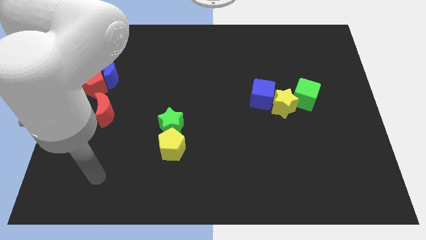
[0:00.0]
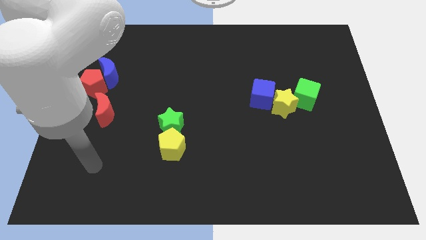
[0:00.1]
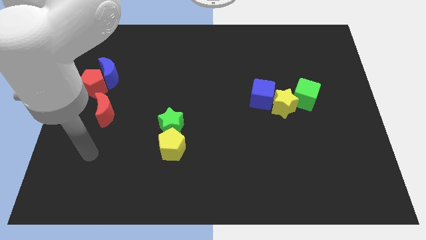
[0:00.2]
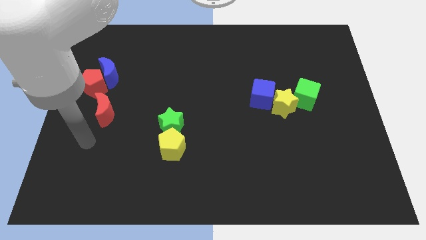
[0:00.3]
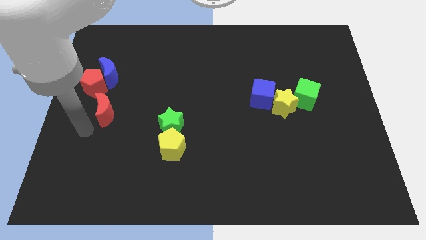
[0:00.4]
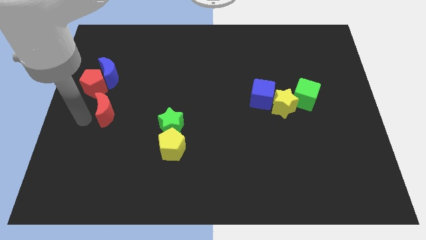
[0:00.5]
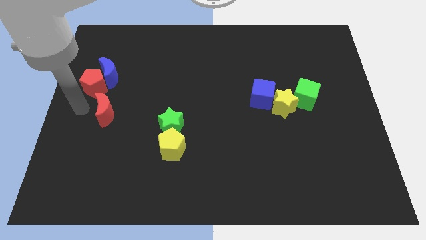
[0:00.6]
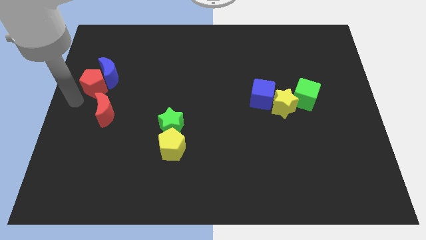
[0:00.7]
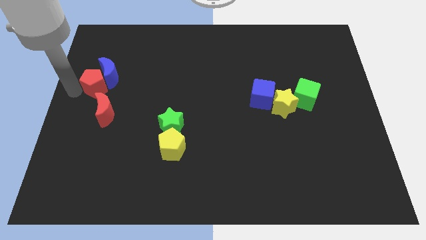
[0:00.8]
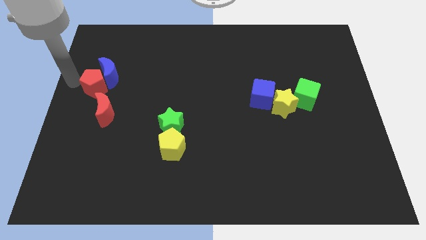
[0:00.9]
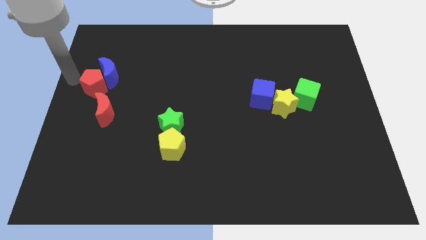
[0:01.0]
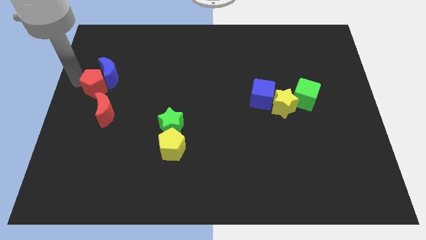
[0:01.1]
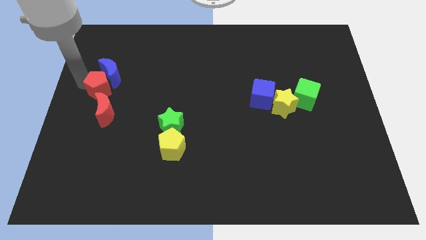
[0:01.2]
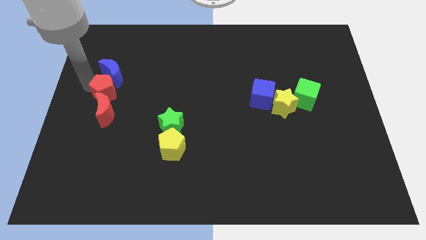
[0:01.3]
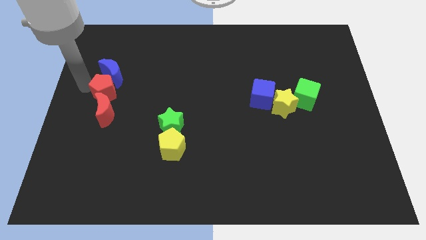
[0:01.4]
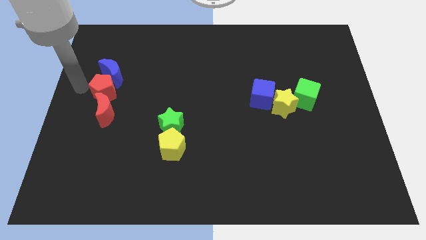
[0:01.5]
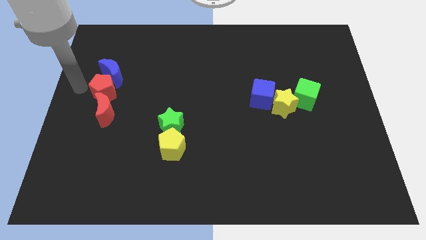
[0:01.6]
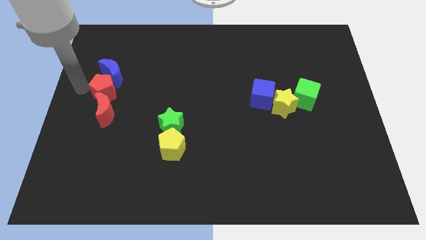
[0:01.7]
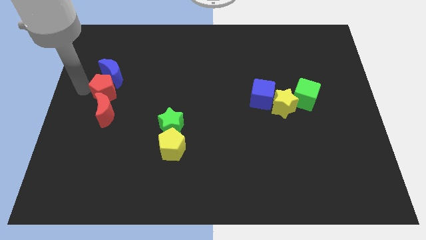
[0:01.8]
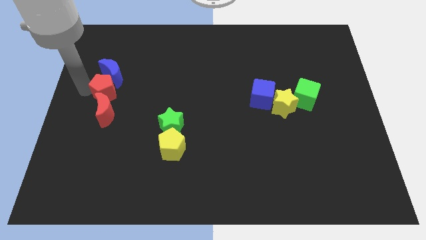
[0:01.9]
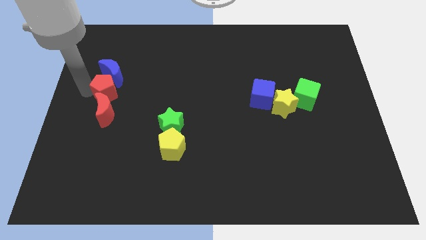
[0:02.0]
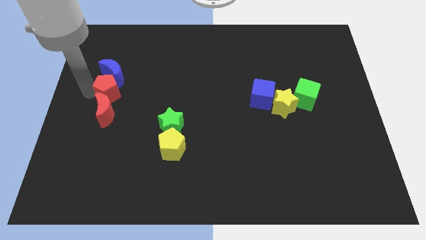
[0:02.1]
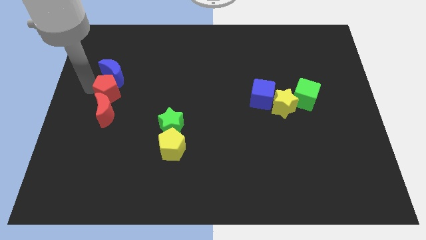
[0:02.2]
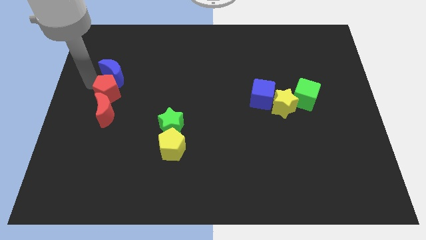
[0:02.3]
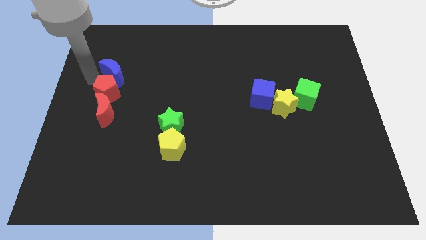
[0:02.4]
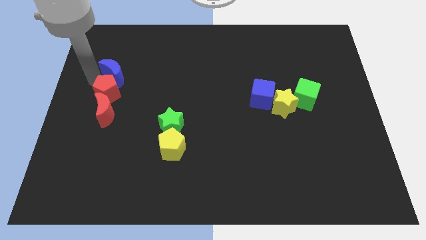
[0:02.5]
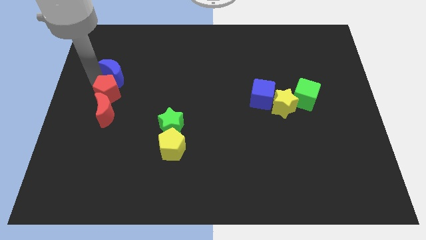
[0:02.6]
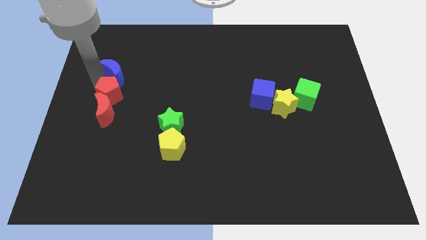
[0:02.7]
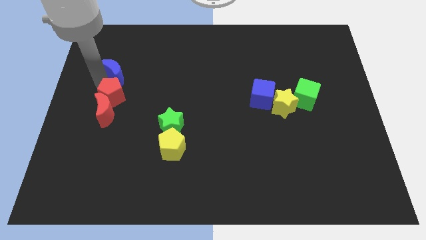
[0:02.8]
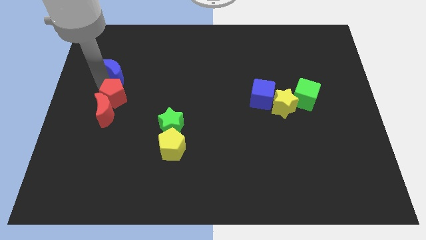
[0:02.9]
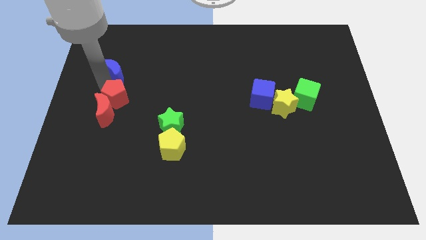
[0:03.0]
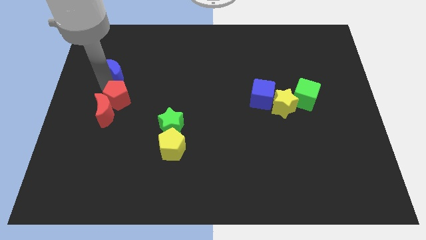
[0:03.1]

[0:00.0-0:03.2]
push the red pentagon a bit downwards and to the right

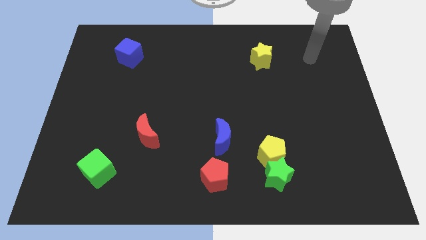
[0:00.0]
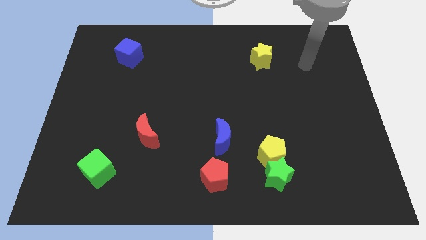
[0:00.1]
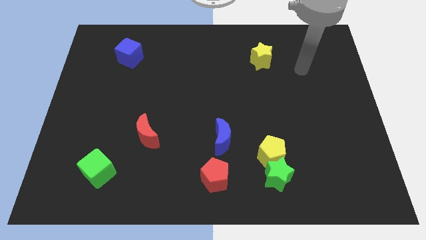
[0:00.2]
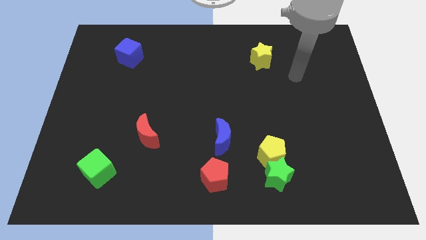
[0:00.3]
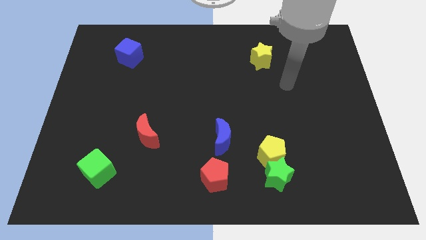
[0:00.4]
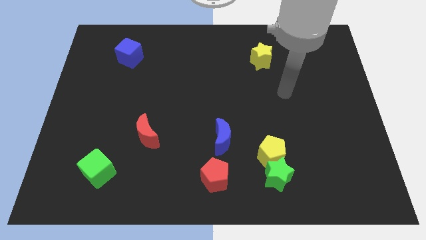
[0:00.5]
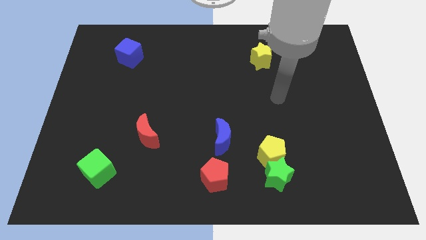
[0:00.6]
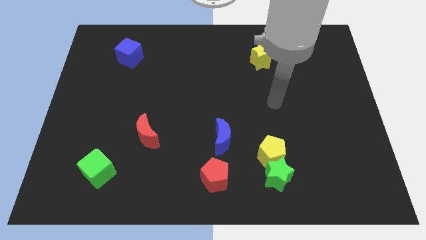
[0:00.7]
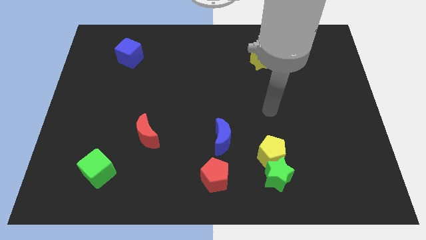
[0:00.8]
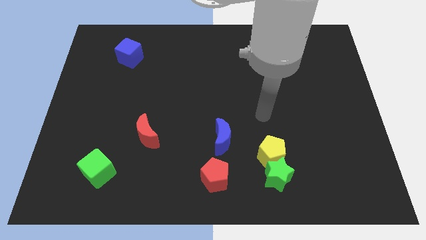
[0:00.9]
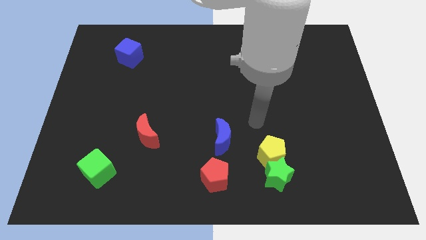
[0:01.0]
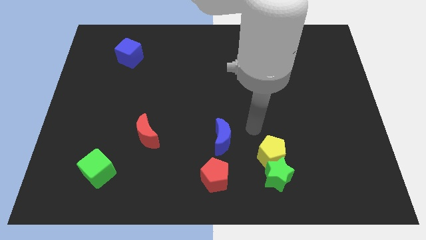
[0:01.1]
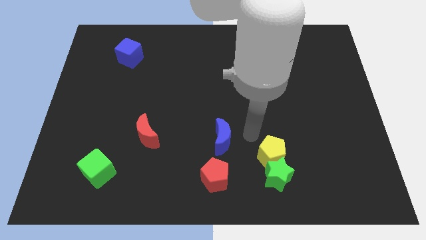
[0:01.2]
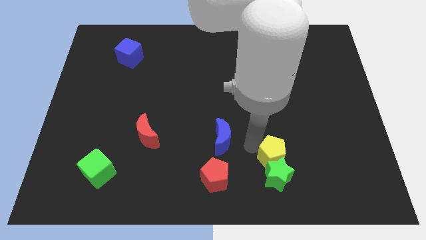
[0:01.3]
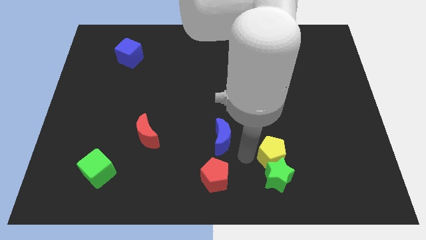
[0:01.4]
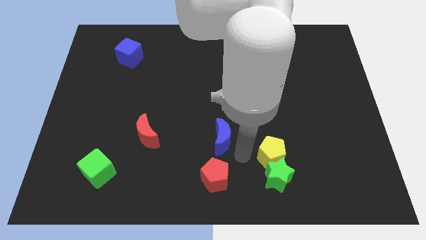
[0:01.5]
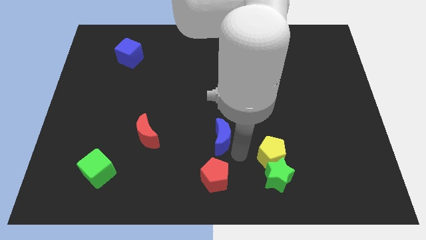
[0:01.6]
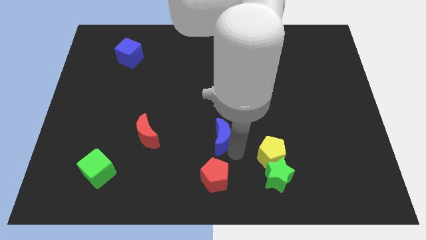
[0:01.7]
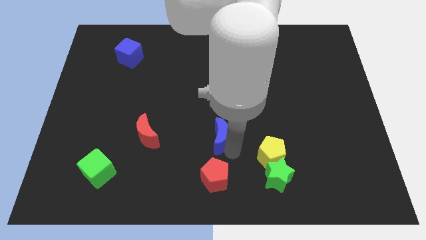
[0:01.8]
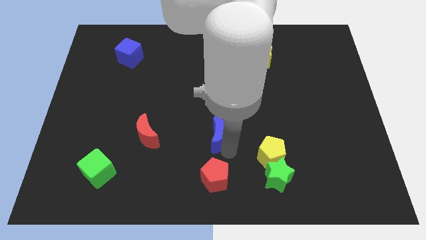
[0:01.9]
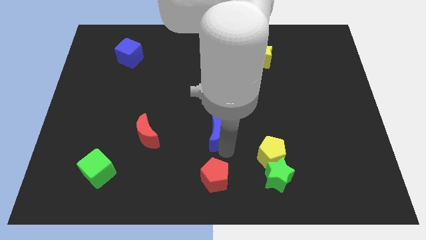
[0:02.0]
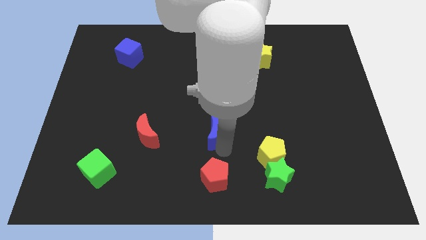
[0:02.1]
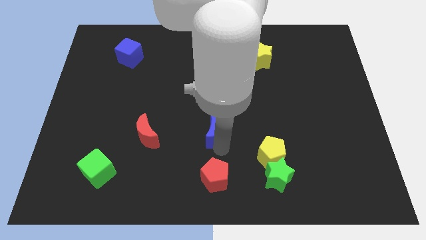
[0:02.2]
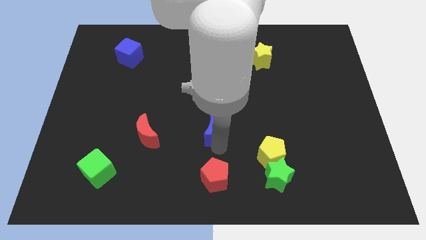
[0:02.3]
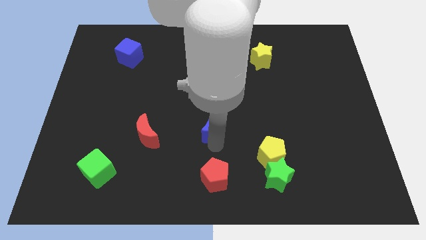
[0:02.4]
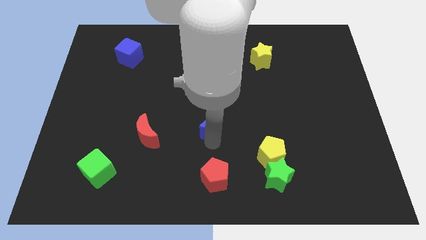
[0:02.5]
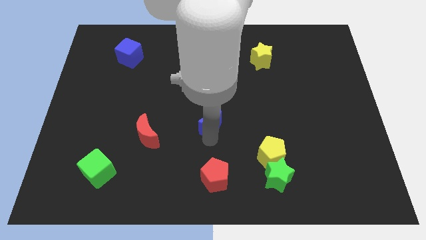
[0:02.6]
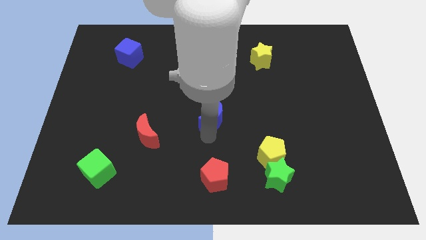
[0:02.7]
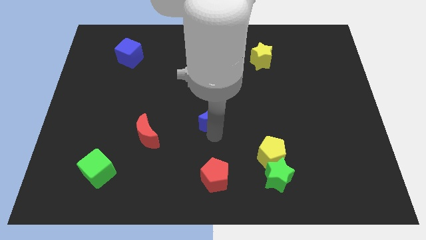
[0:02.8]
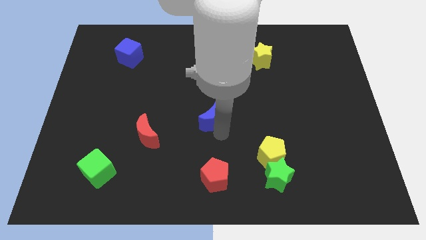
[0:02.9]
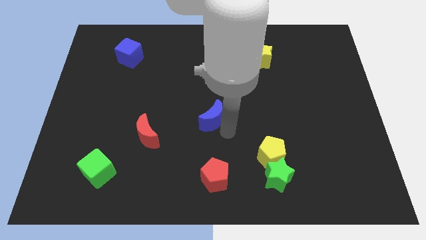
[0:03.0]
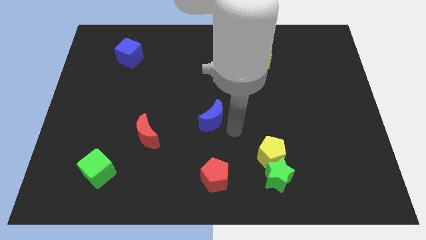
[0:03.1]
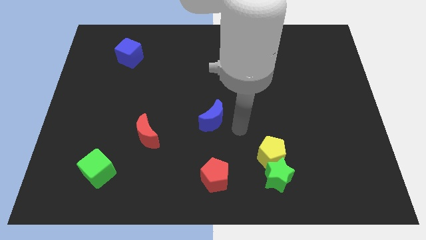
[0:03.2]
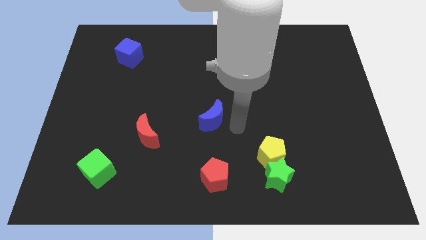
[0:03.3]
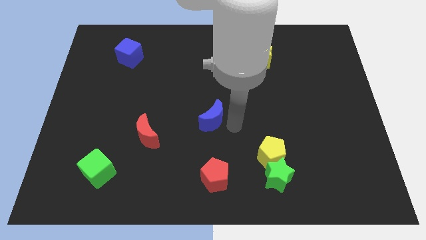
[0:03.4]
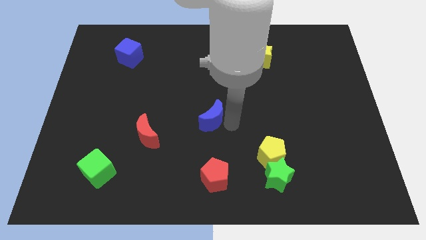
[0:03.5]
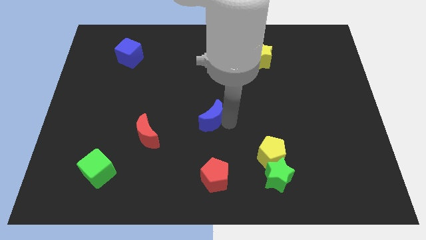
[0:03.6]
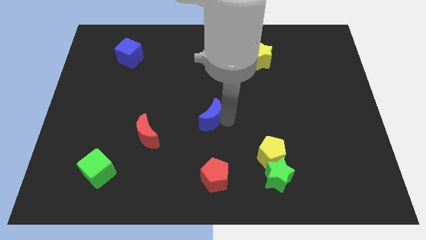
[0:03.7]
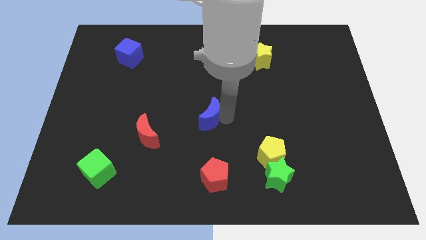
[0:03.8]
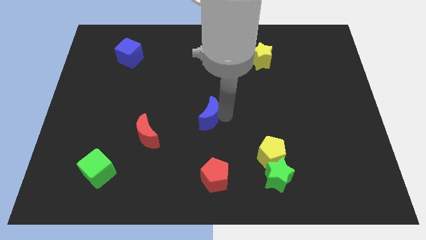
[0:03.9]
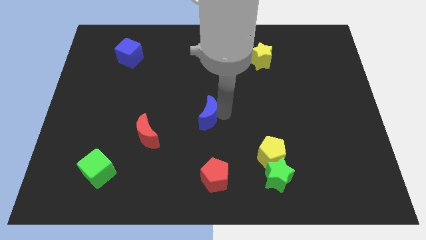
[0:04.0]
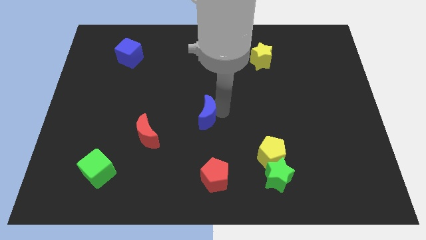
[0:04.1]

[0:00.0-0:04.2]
move the blue moon a bit upwards and left diagonally

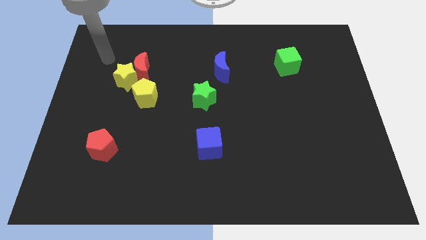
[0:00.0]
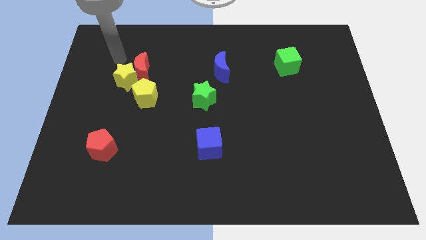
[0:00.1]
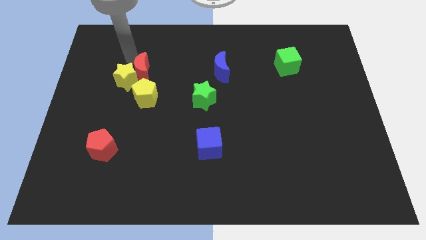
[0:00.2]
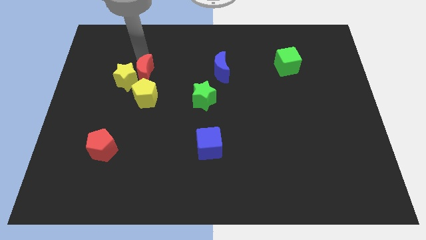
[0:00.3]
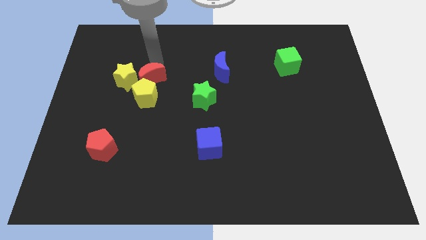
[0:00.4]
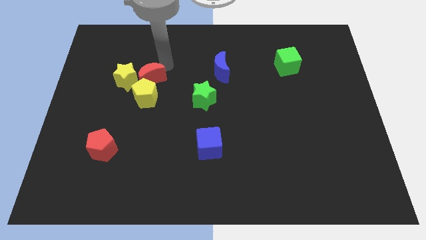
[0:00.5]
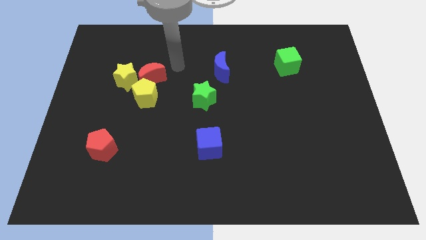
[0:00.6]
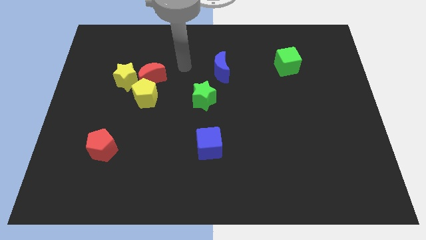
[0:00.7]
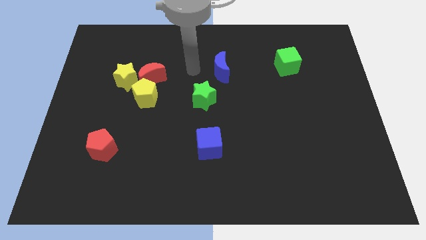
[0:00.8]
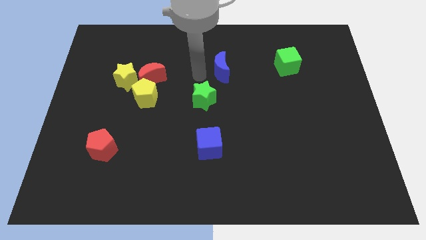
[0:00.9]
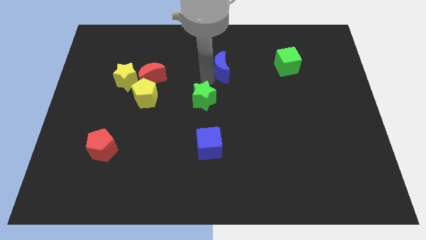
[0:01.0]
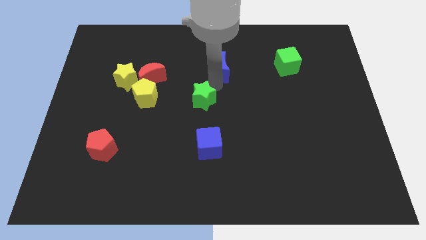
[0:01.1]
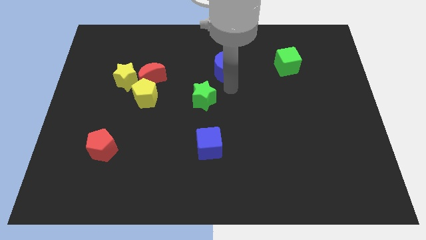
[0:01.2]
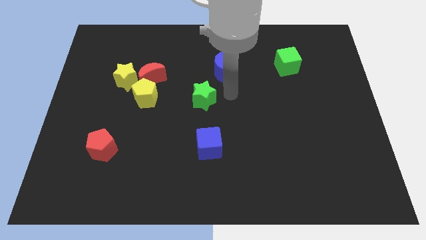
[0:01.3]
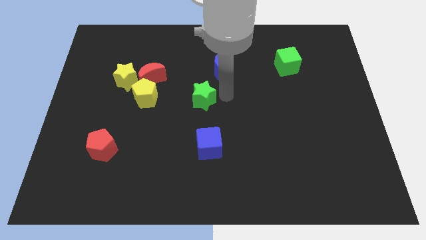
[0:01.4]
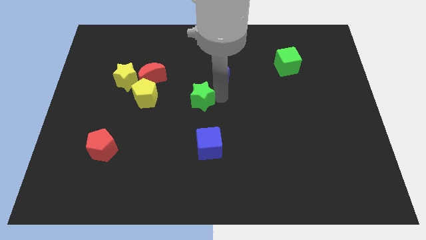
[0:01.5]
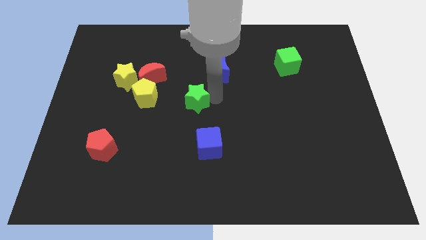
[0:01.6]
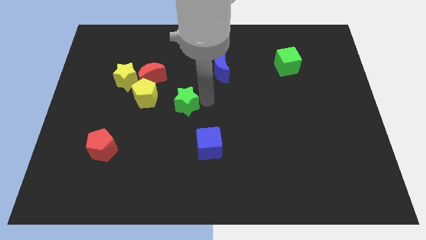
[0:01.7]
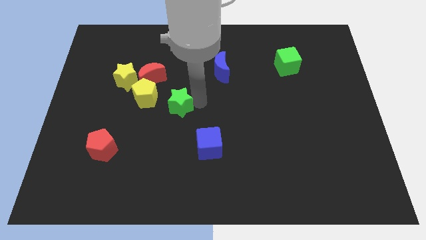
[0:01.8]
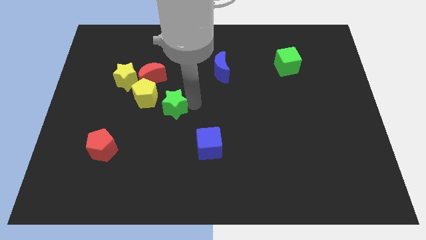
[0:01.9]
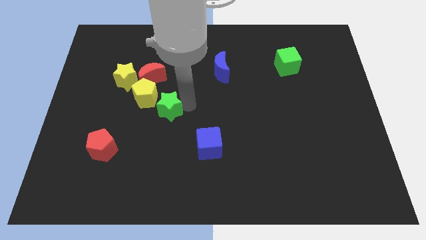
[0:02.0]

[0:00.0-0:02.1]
move the green star a little left
